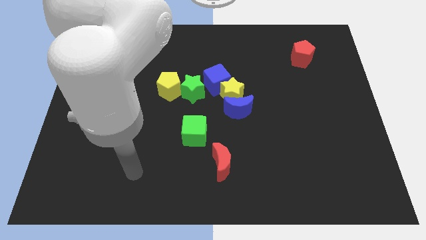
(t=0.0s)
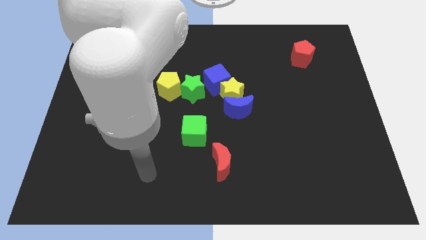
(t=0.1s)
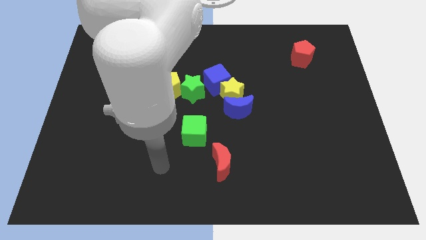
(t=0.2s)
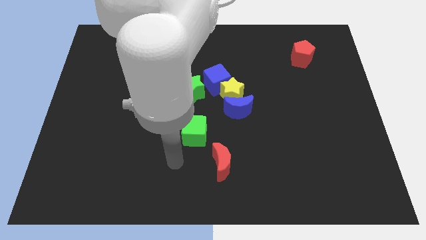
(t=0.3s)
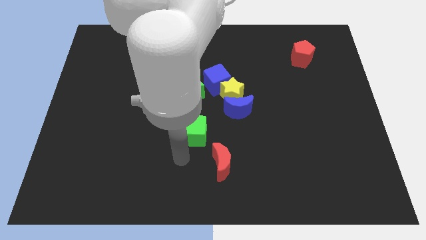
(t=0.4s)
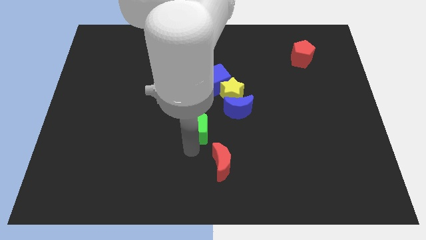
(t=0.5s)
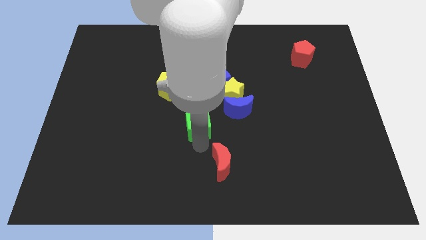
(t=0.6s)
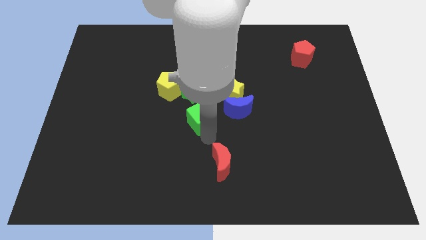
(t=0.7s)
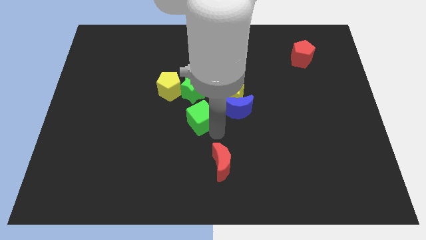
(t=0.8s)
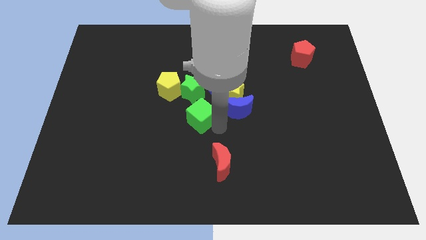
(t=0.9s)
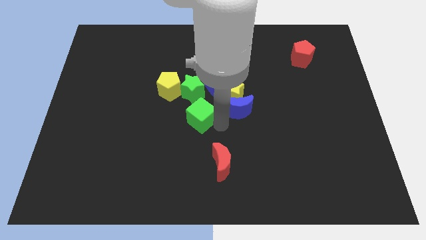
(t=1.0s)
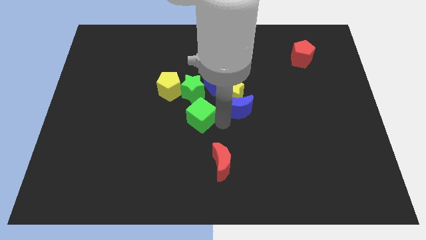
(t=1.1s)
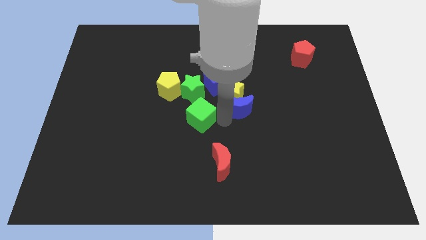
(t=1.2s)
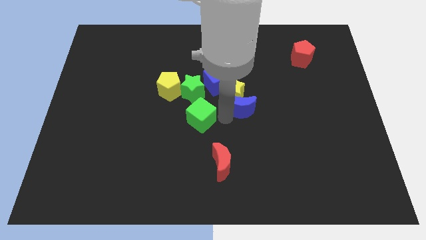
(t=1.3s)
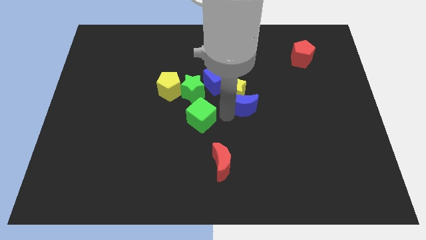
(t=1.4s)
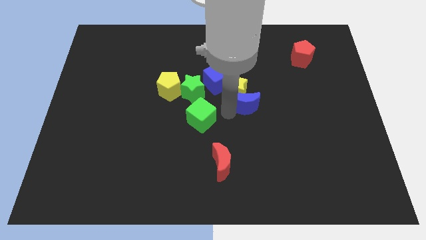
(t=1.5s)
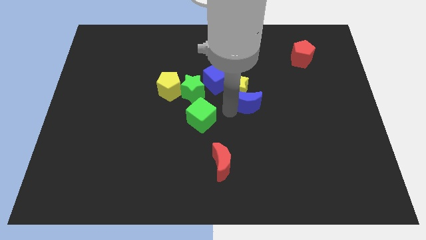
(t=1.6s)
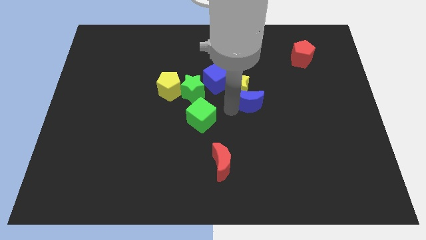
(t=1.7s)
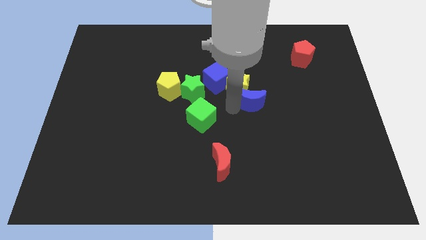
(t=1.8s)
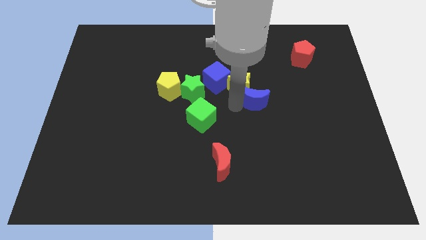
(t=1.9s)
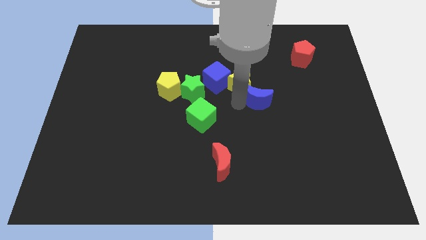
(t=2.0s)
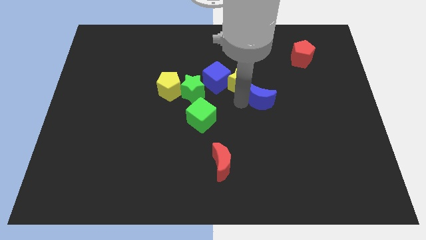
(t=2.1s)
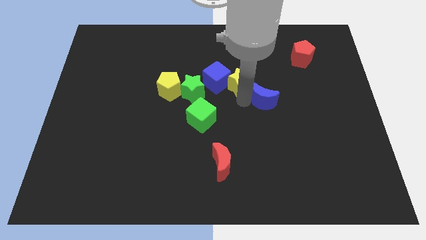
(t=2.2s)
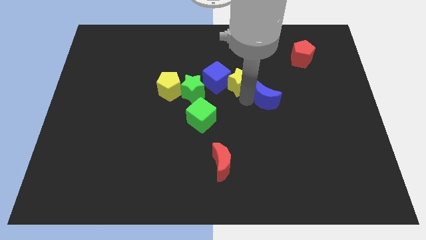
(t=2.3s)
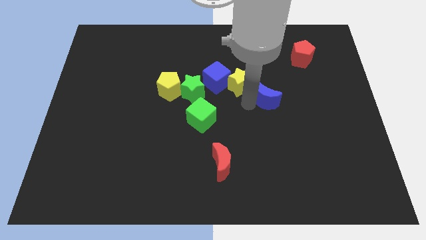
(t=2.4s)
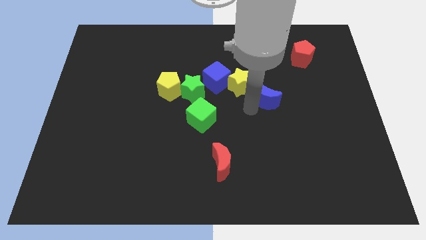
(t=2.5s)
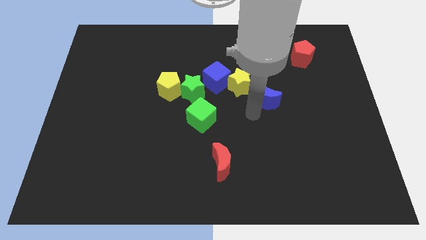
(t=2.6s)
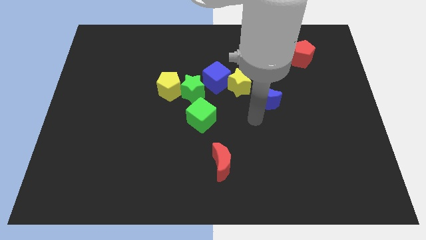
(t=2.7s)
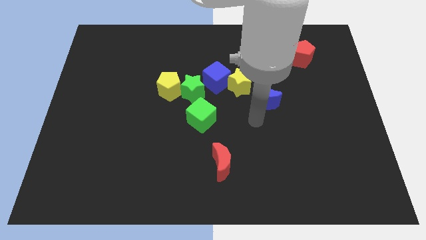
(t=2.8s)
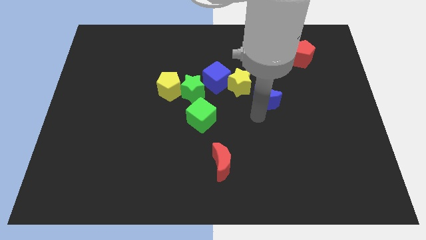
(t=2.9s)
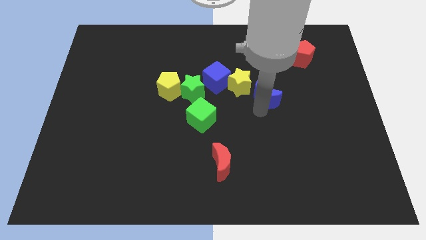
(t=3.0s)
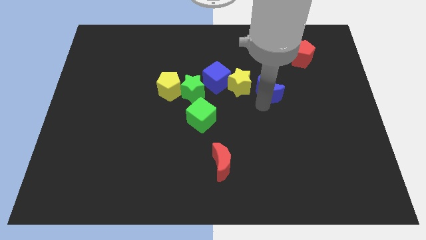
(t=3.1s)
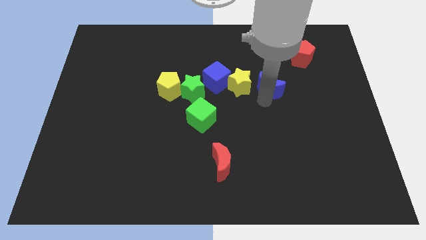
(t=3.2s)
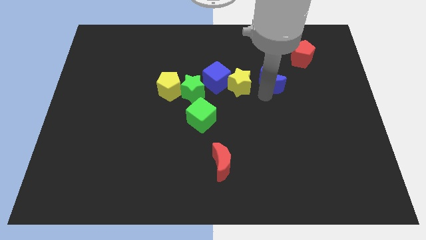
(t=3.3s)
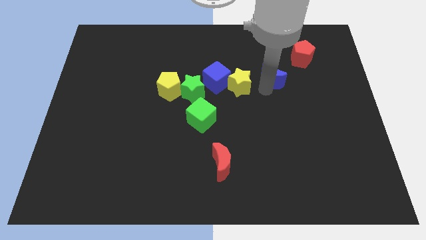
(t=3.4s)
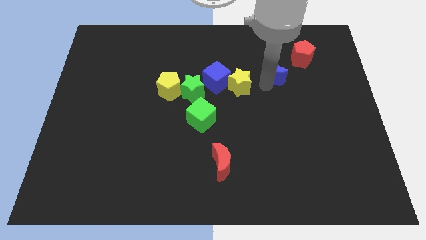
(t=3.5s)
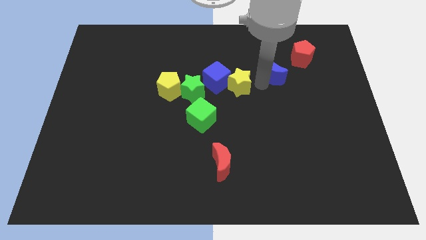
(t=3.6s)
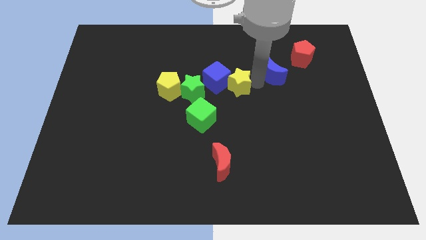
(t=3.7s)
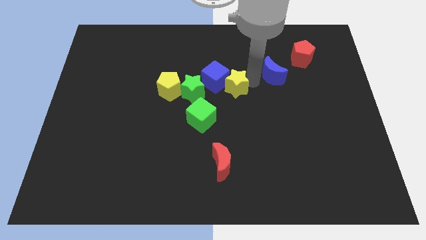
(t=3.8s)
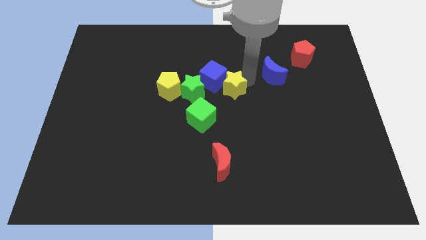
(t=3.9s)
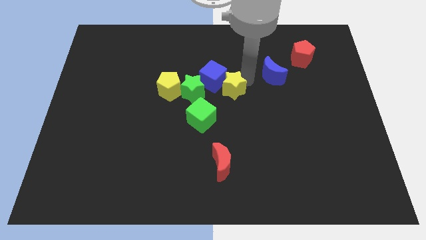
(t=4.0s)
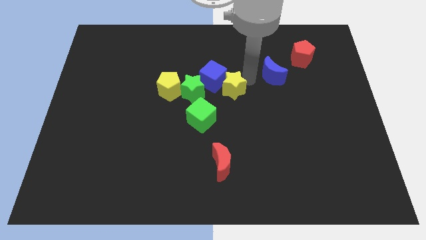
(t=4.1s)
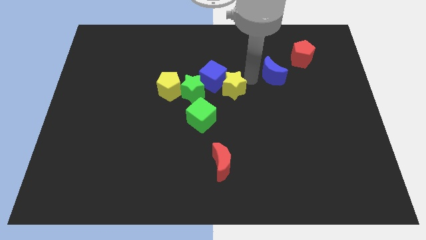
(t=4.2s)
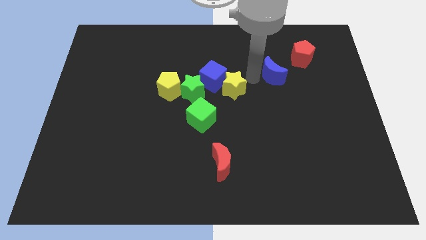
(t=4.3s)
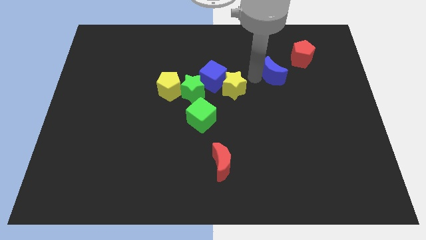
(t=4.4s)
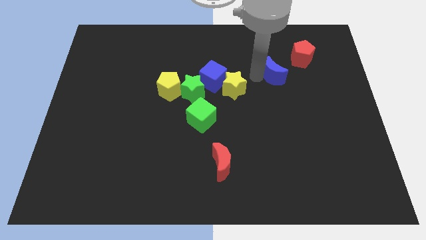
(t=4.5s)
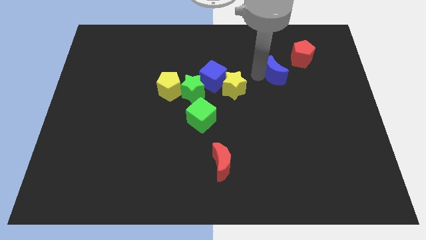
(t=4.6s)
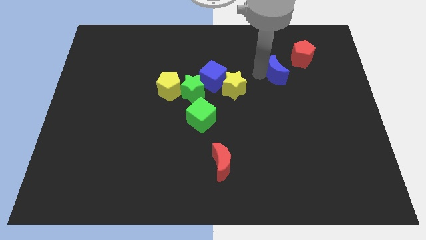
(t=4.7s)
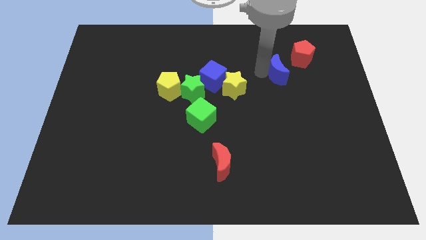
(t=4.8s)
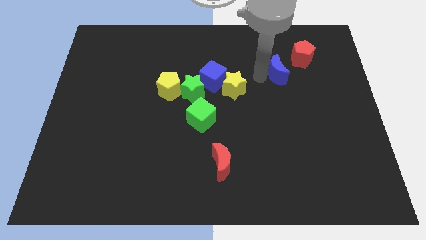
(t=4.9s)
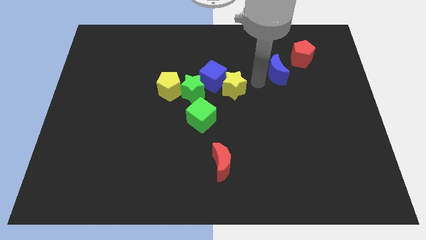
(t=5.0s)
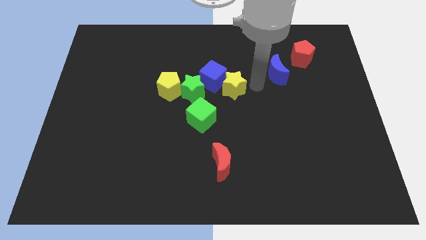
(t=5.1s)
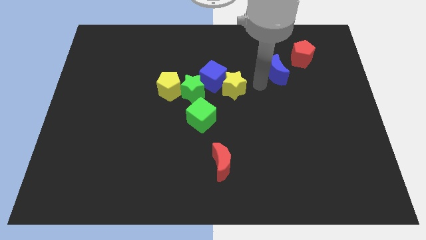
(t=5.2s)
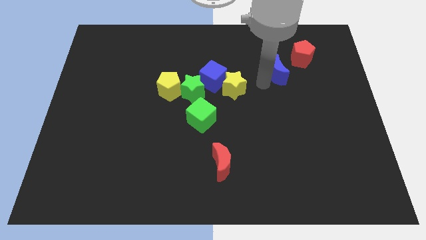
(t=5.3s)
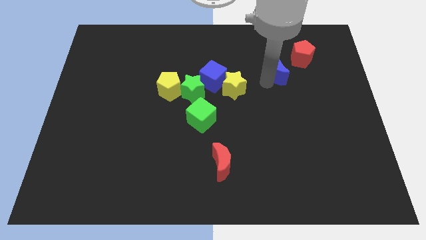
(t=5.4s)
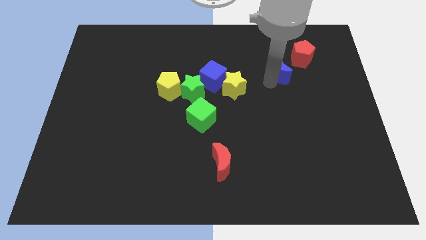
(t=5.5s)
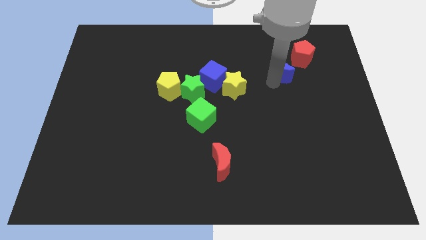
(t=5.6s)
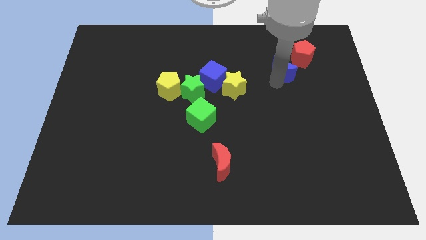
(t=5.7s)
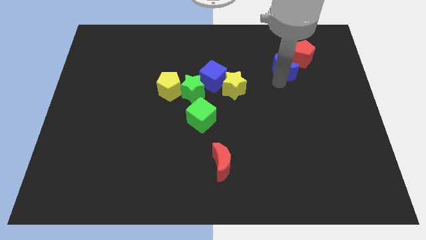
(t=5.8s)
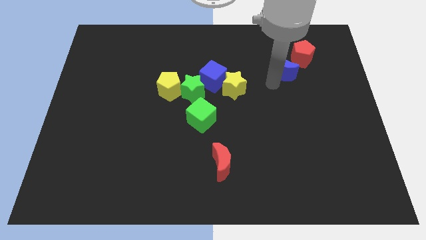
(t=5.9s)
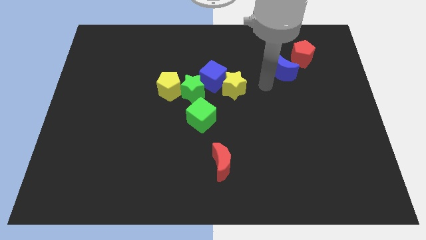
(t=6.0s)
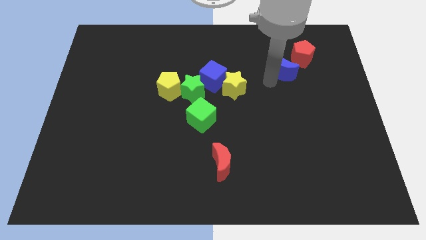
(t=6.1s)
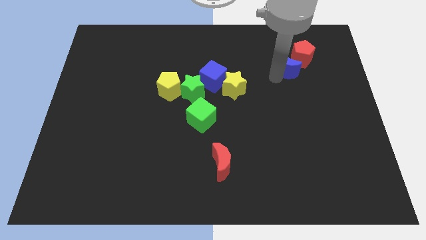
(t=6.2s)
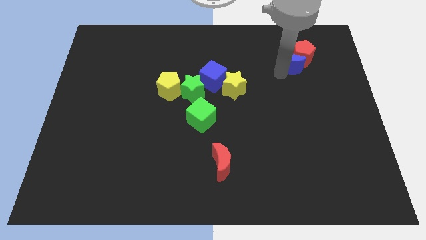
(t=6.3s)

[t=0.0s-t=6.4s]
push the blue moon next to the red pentagon

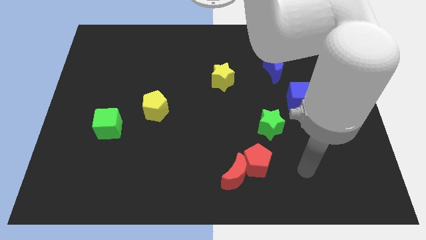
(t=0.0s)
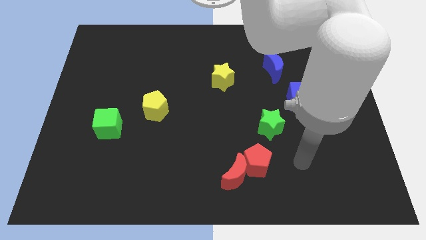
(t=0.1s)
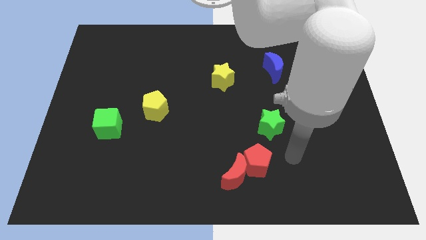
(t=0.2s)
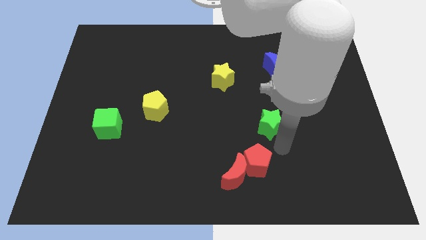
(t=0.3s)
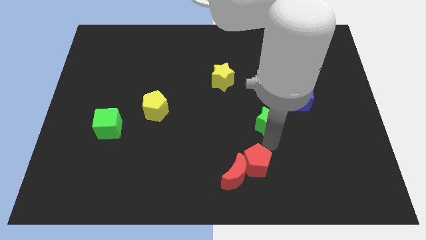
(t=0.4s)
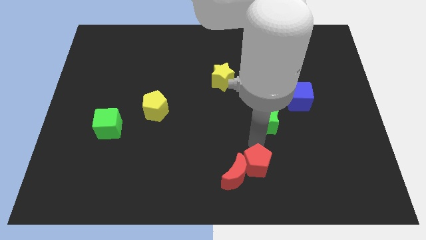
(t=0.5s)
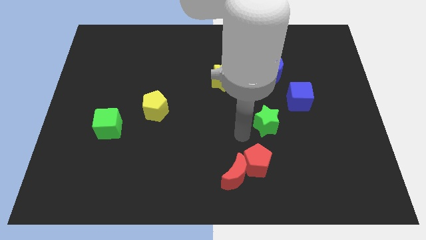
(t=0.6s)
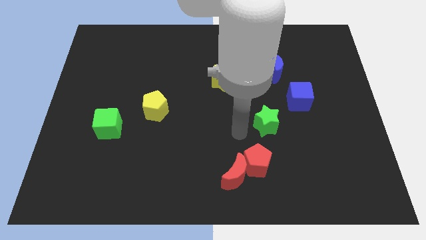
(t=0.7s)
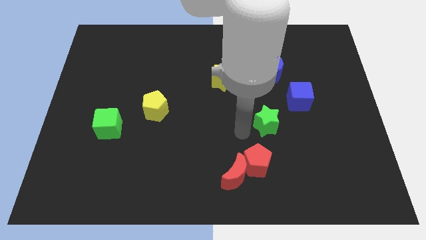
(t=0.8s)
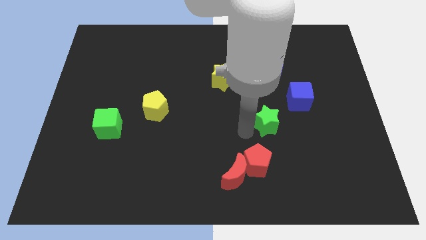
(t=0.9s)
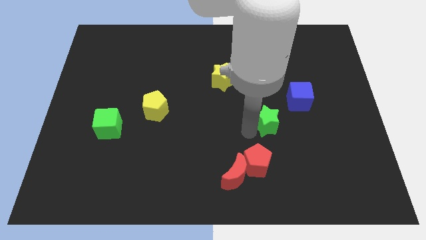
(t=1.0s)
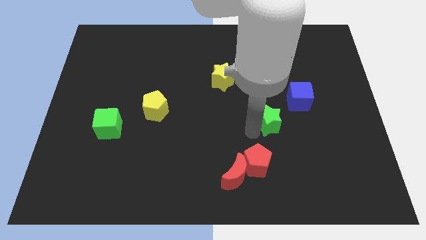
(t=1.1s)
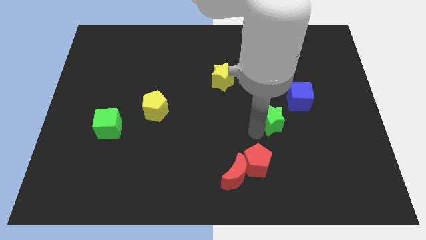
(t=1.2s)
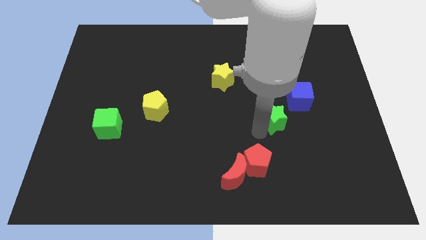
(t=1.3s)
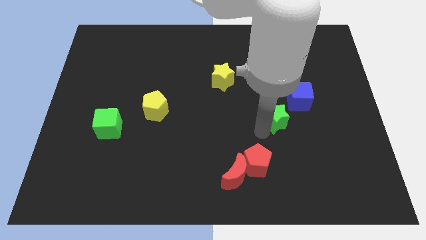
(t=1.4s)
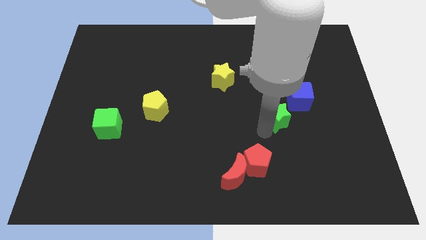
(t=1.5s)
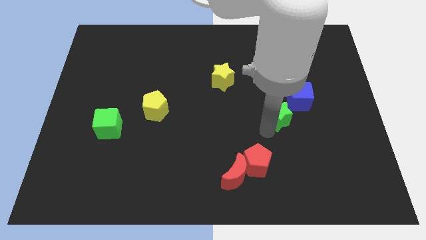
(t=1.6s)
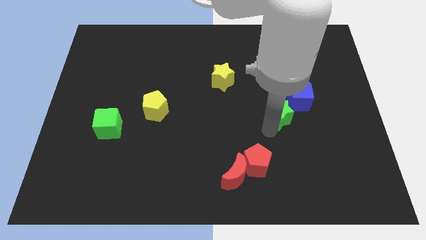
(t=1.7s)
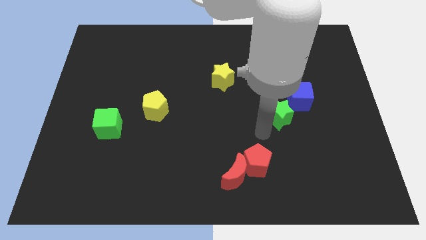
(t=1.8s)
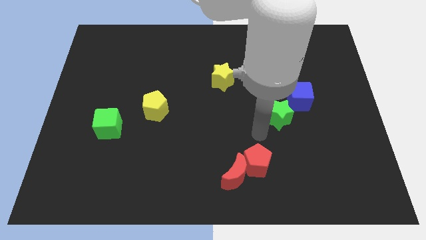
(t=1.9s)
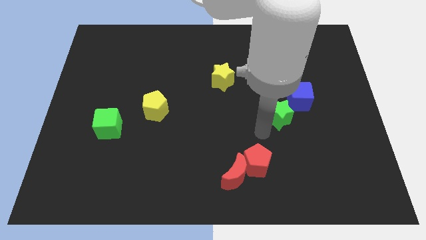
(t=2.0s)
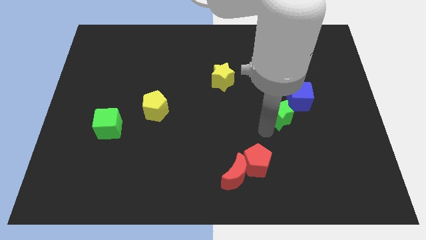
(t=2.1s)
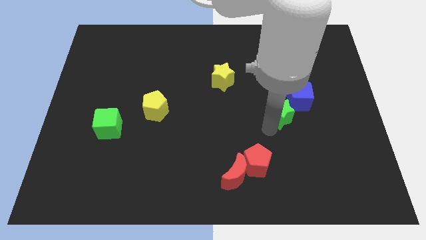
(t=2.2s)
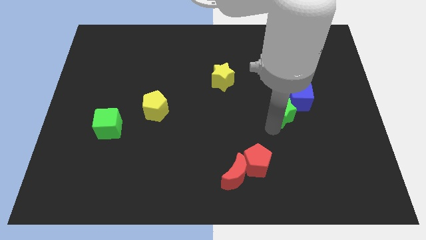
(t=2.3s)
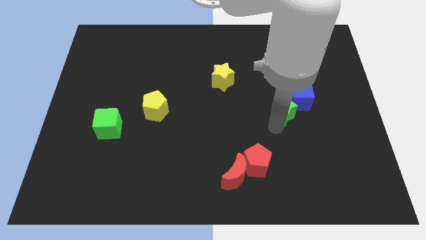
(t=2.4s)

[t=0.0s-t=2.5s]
move the green star close to the blue cube
